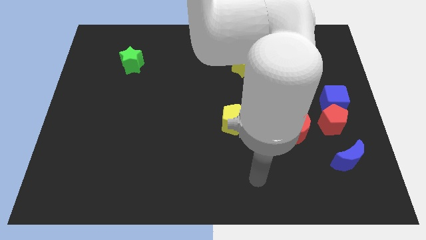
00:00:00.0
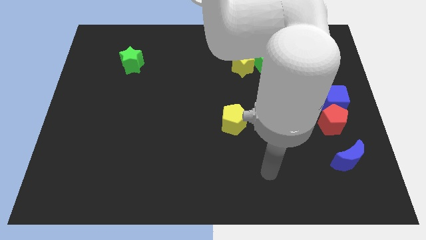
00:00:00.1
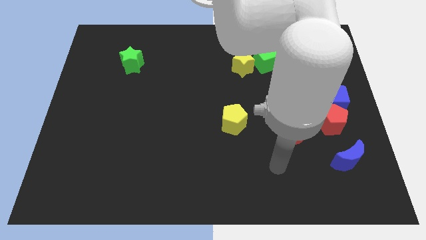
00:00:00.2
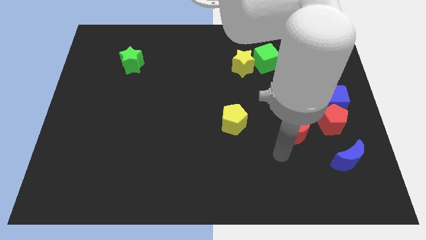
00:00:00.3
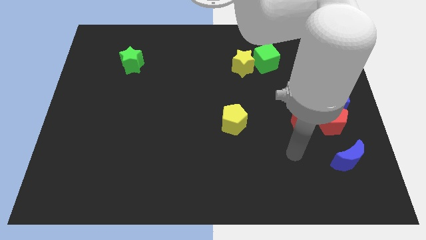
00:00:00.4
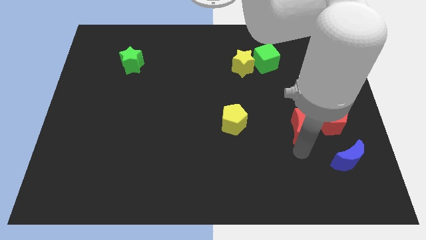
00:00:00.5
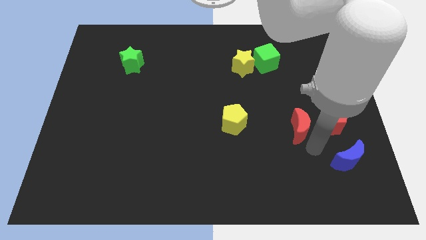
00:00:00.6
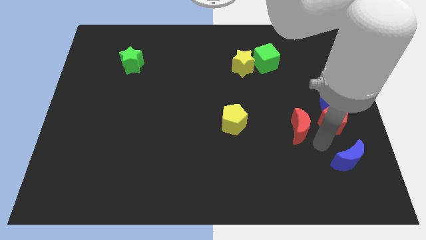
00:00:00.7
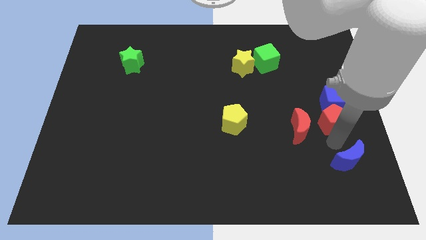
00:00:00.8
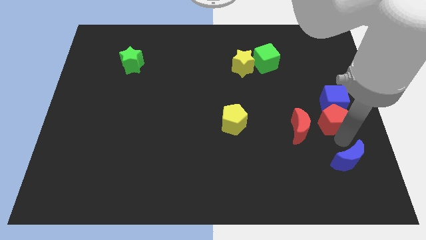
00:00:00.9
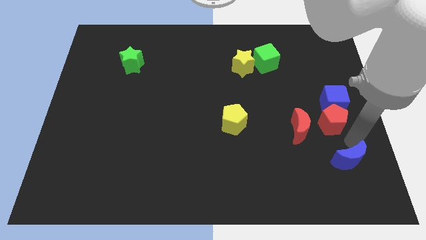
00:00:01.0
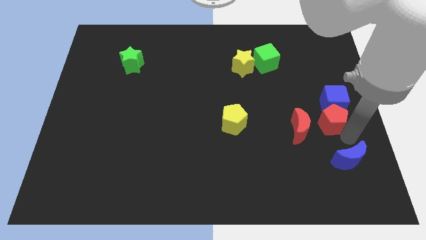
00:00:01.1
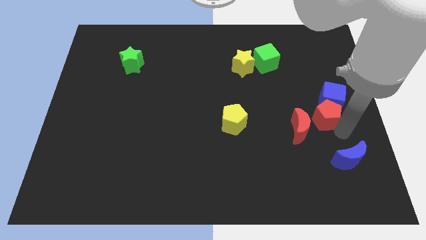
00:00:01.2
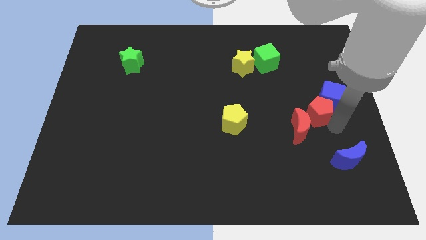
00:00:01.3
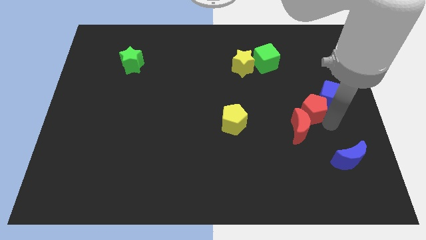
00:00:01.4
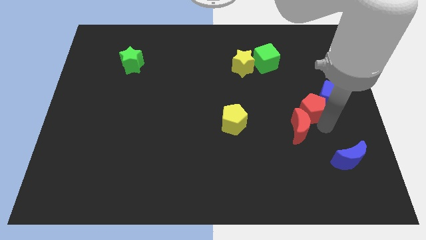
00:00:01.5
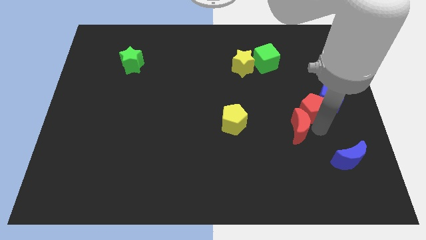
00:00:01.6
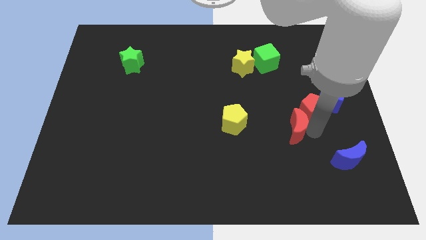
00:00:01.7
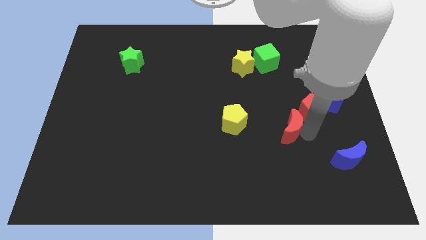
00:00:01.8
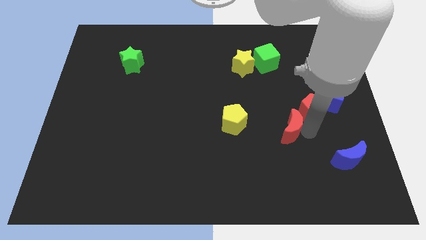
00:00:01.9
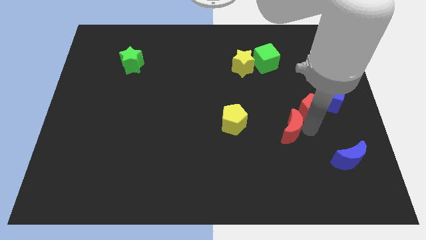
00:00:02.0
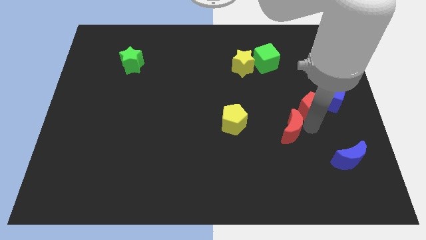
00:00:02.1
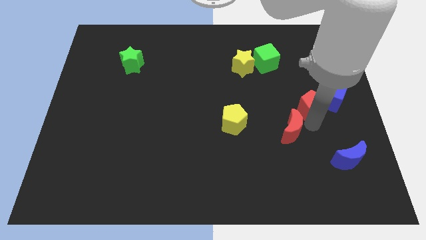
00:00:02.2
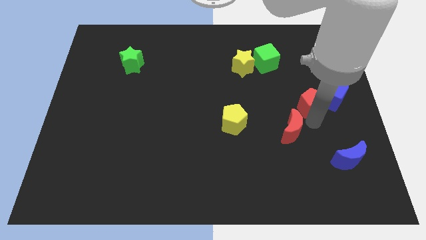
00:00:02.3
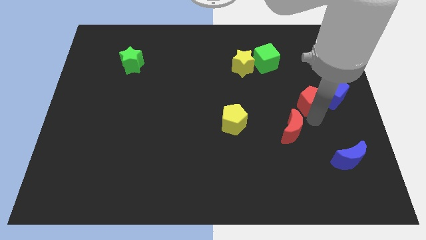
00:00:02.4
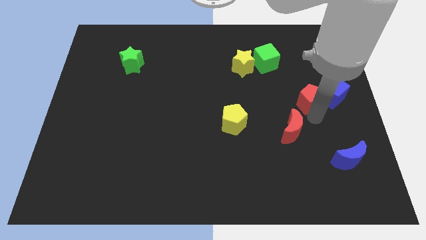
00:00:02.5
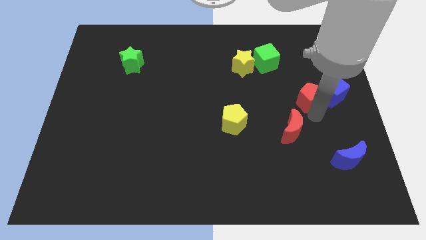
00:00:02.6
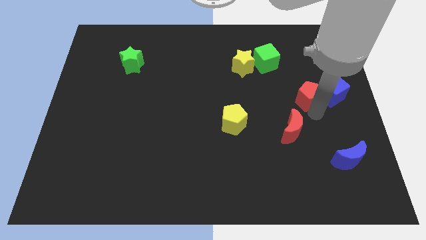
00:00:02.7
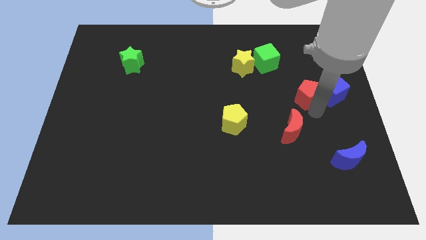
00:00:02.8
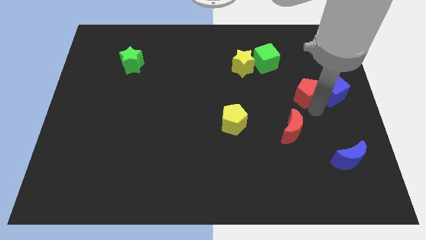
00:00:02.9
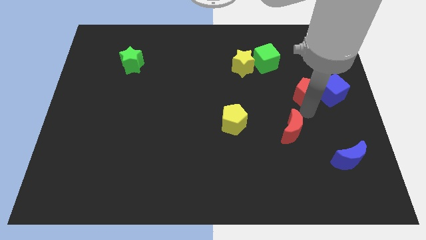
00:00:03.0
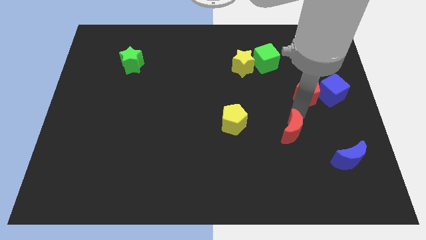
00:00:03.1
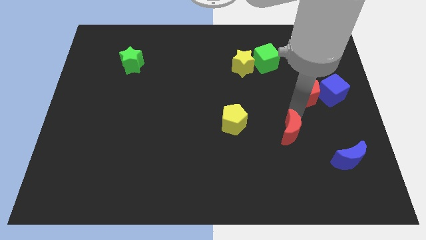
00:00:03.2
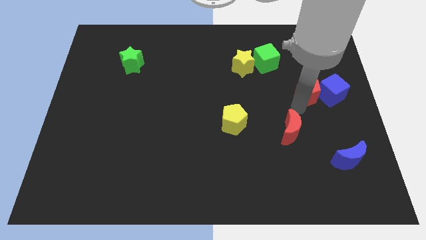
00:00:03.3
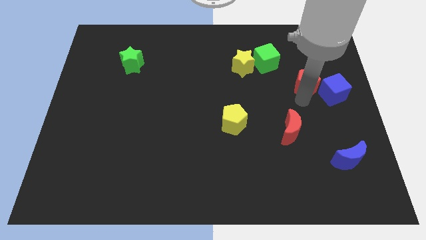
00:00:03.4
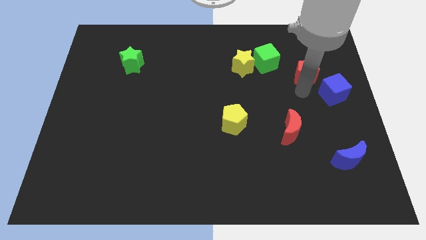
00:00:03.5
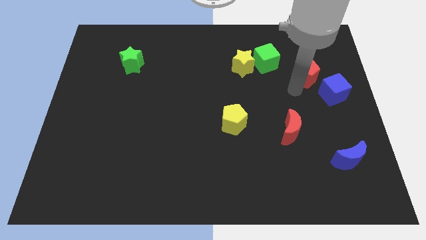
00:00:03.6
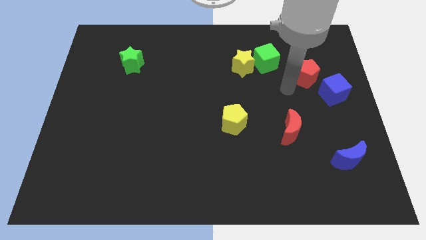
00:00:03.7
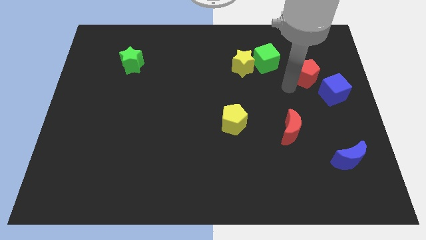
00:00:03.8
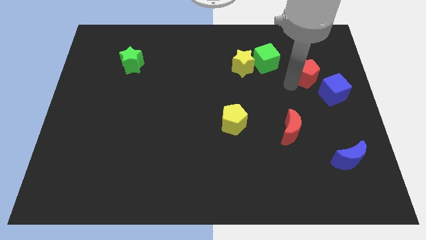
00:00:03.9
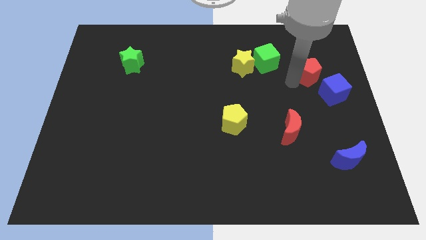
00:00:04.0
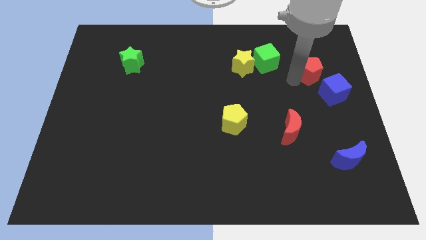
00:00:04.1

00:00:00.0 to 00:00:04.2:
put the red pentagon to the top side of the blue cube

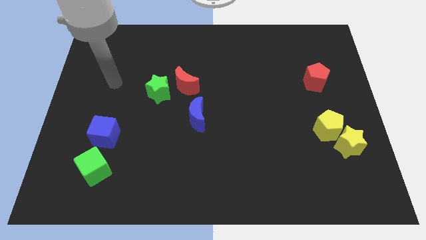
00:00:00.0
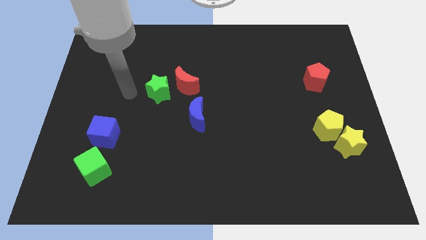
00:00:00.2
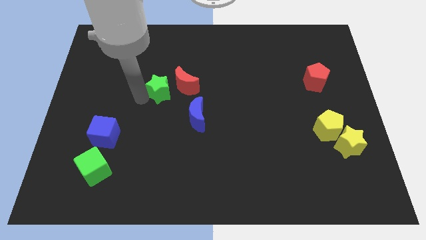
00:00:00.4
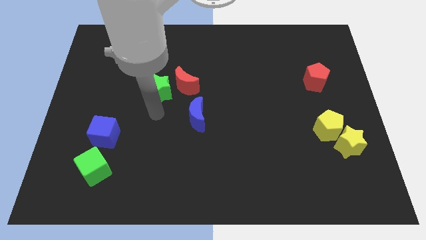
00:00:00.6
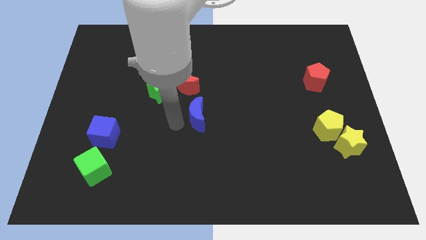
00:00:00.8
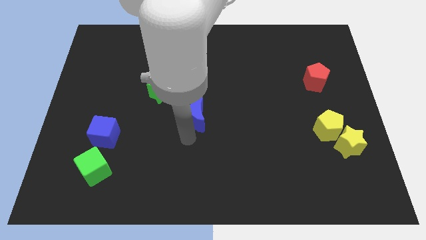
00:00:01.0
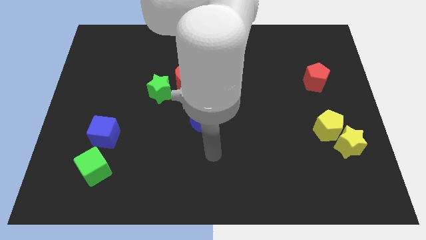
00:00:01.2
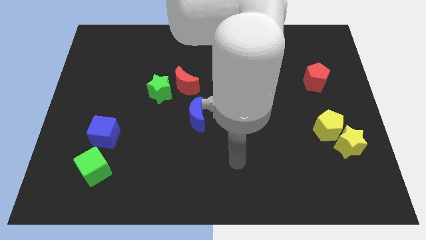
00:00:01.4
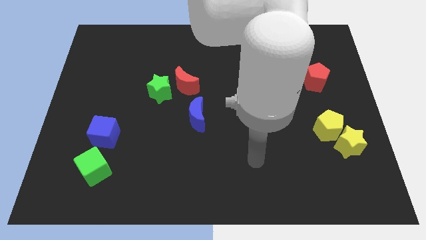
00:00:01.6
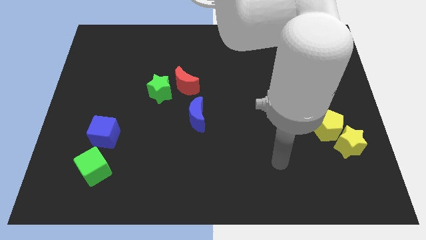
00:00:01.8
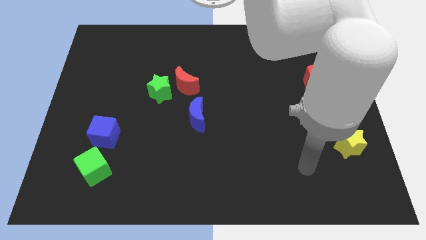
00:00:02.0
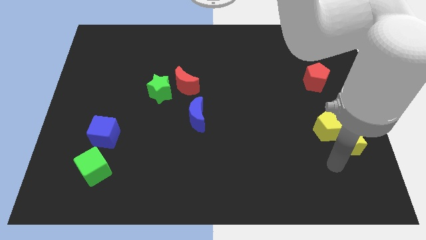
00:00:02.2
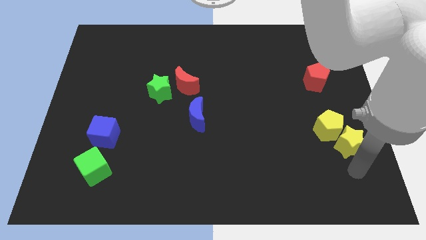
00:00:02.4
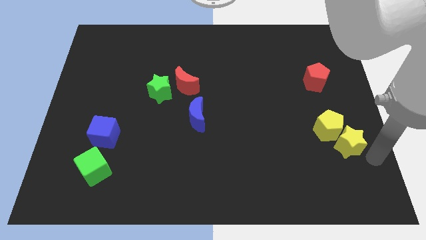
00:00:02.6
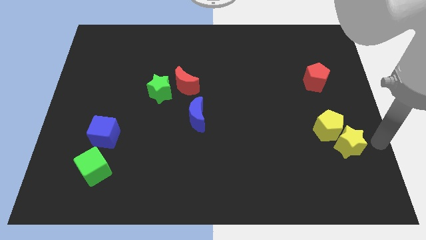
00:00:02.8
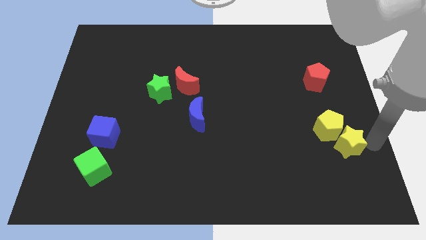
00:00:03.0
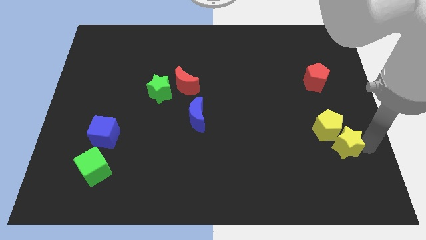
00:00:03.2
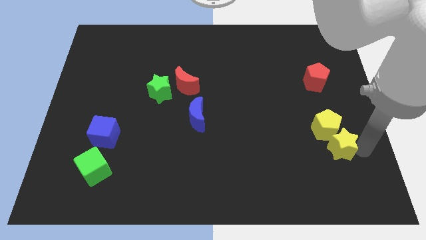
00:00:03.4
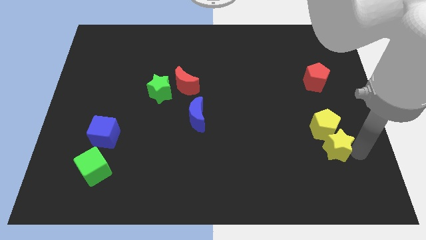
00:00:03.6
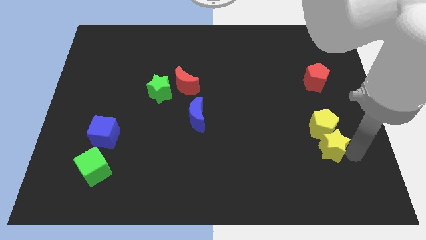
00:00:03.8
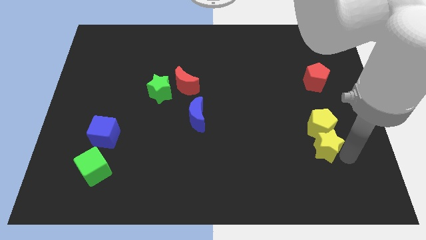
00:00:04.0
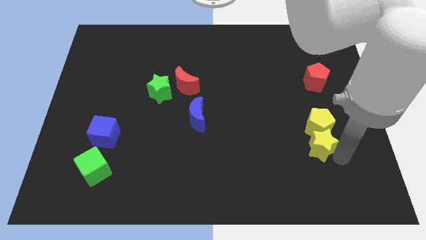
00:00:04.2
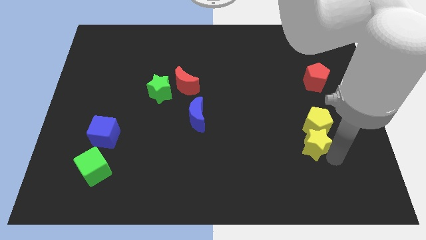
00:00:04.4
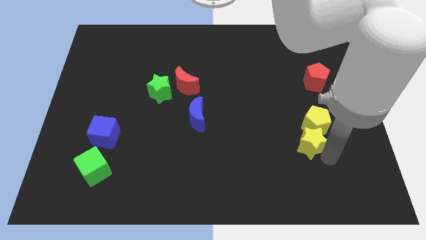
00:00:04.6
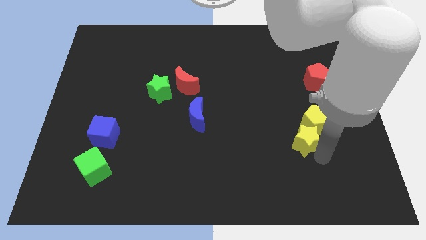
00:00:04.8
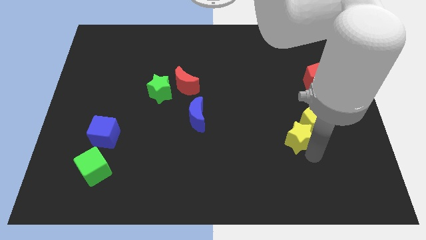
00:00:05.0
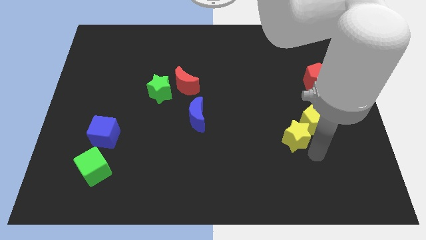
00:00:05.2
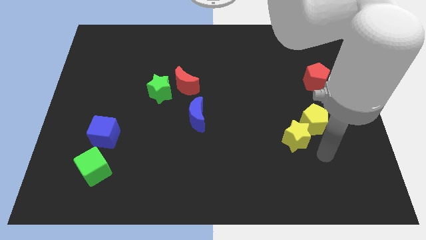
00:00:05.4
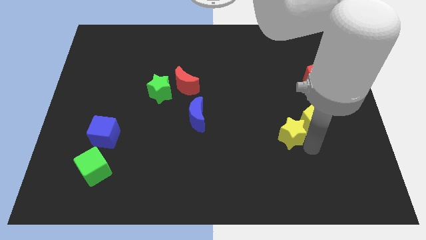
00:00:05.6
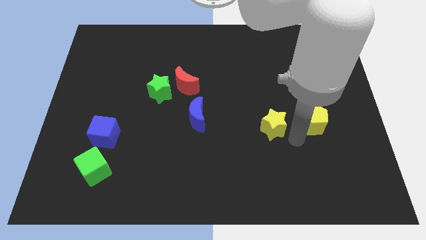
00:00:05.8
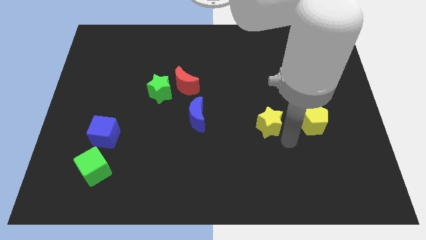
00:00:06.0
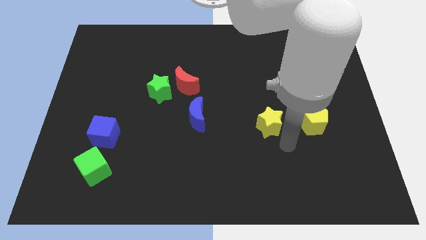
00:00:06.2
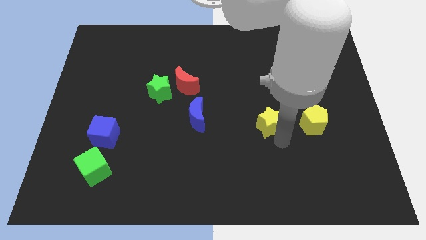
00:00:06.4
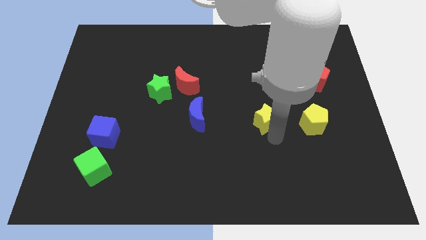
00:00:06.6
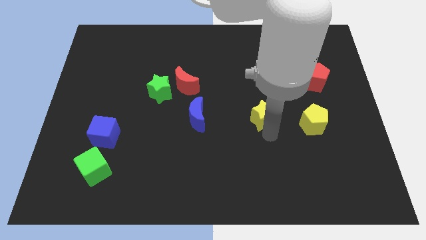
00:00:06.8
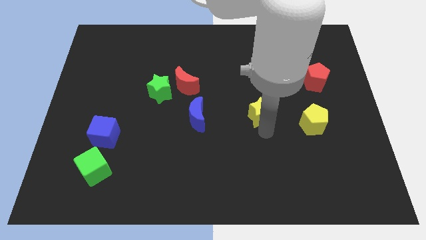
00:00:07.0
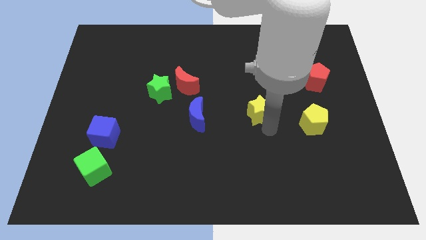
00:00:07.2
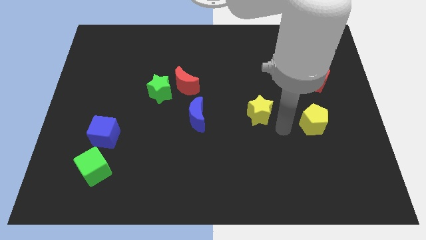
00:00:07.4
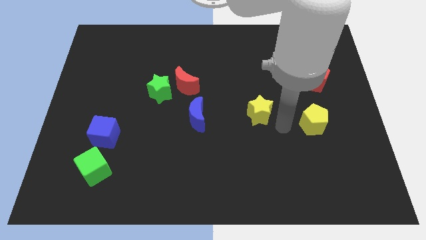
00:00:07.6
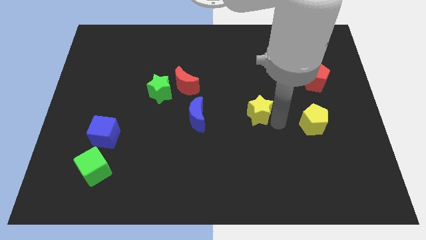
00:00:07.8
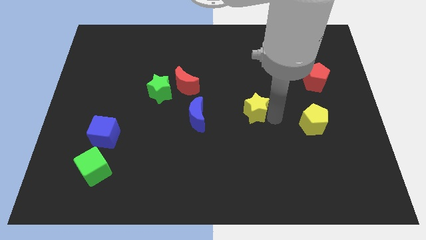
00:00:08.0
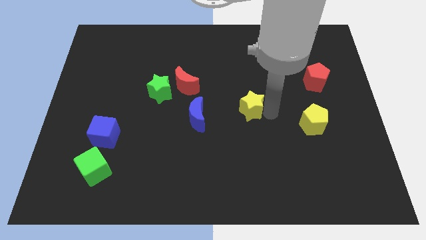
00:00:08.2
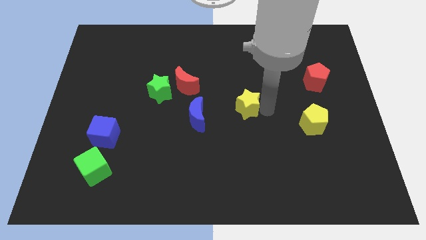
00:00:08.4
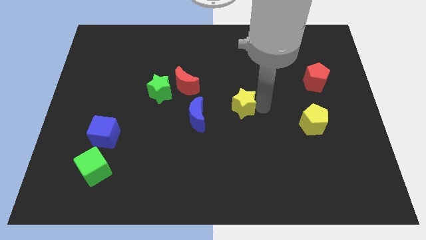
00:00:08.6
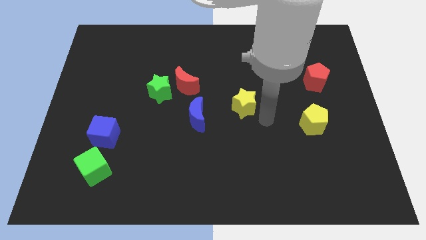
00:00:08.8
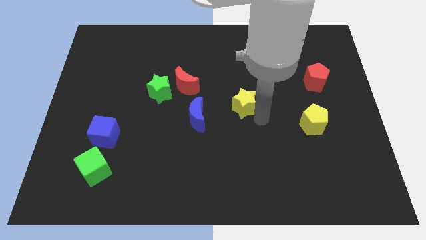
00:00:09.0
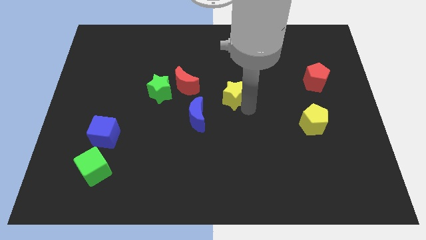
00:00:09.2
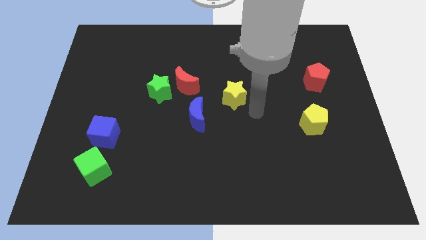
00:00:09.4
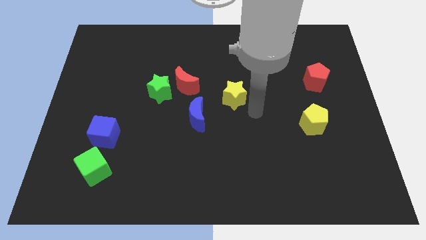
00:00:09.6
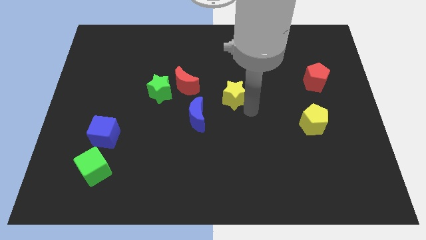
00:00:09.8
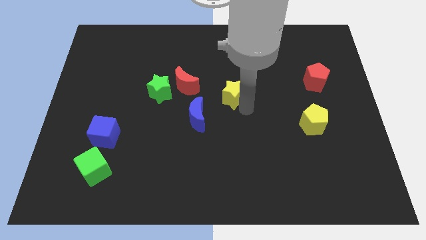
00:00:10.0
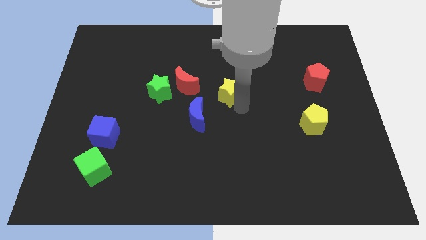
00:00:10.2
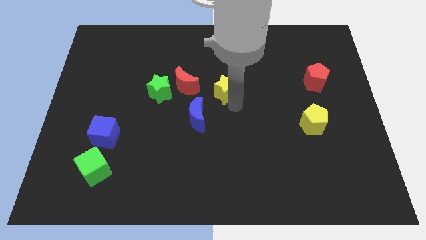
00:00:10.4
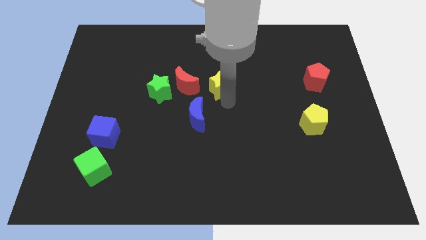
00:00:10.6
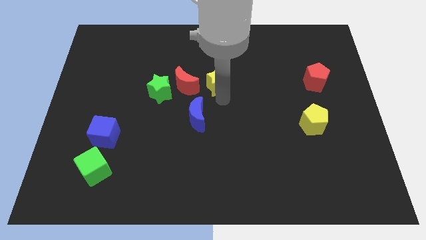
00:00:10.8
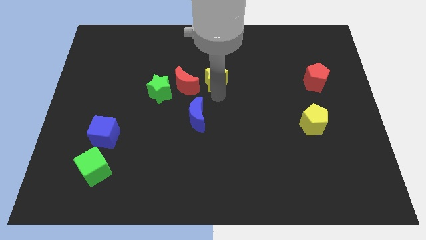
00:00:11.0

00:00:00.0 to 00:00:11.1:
slide the yellow star to the top right side of the red moon
